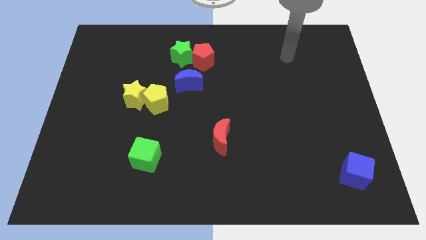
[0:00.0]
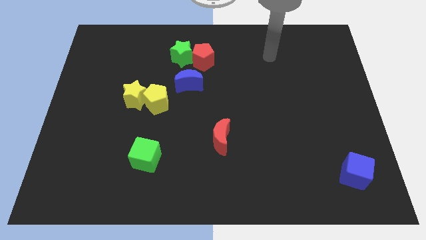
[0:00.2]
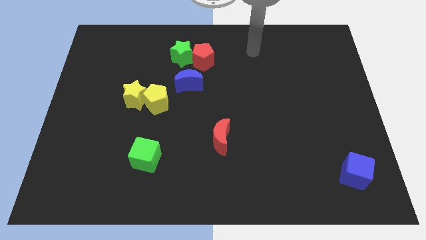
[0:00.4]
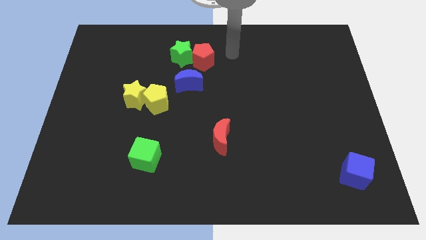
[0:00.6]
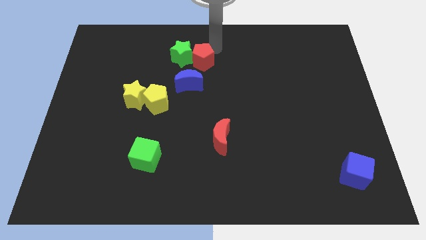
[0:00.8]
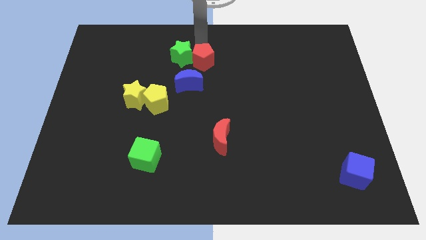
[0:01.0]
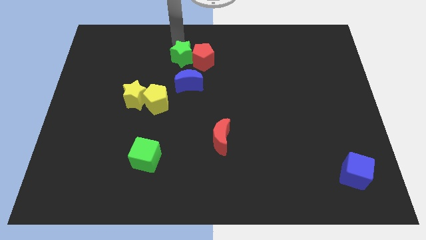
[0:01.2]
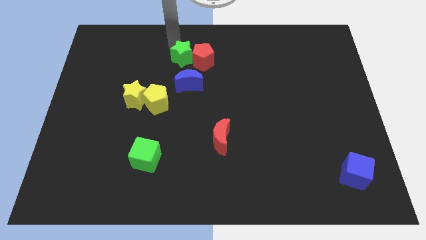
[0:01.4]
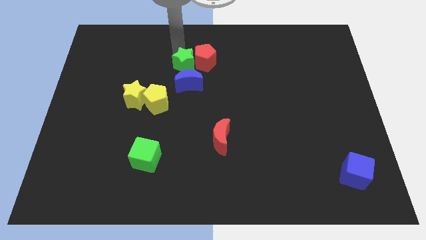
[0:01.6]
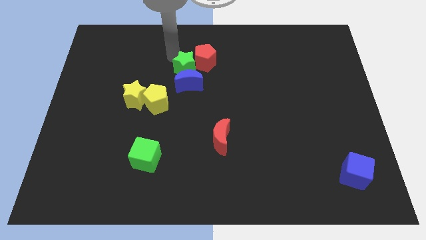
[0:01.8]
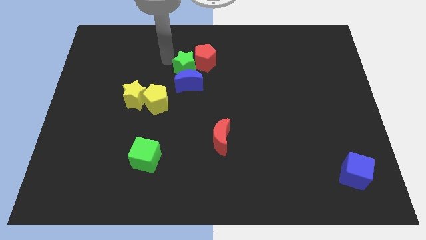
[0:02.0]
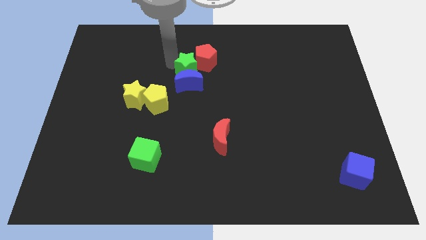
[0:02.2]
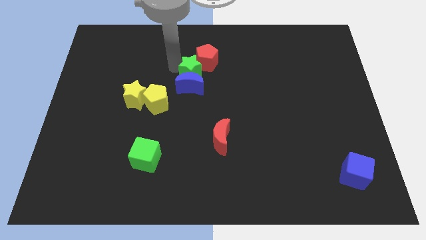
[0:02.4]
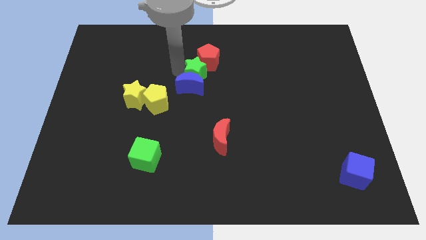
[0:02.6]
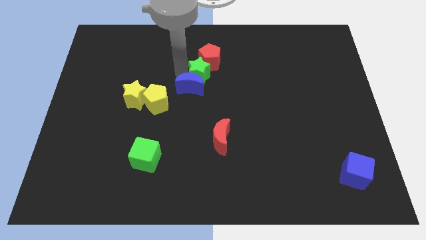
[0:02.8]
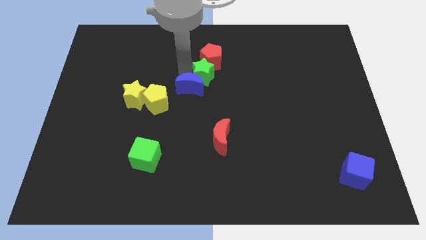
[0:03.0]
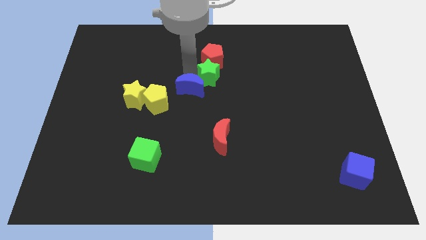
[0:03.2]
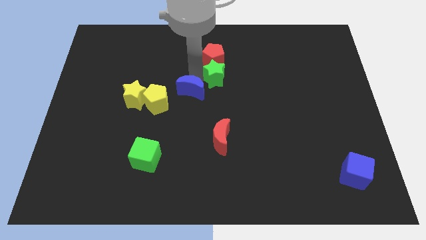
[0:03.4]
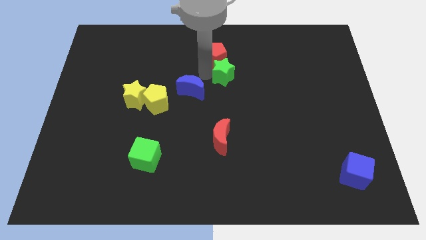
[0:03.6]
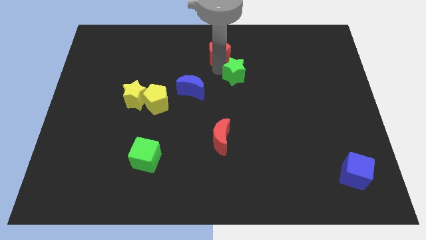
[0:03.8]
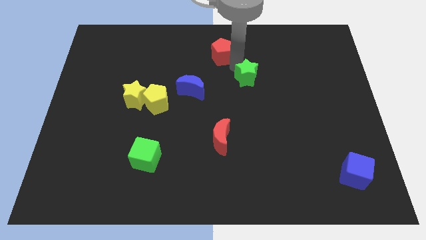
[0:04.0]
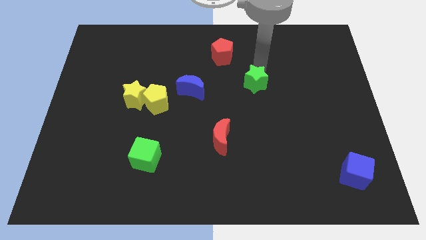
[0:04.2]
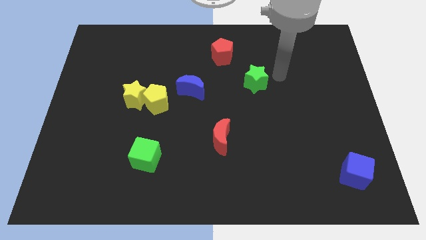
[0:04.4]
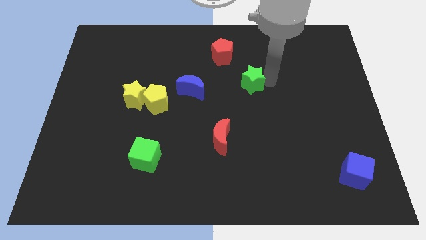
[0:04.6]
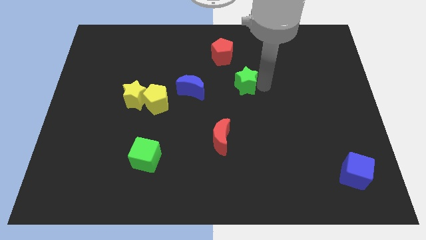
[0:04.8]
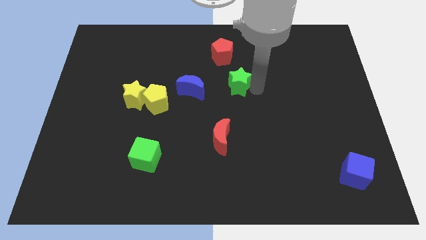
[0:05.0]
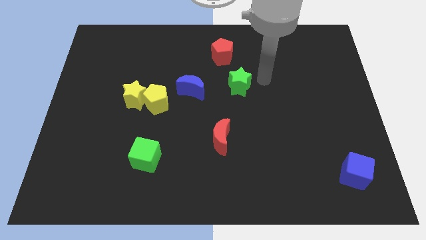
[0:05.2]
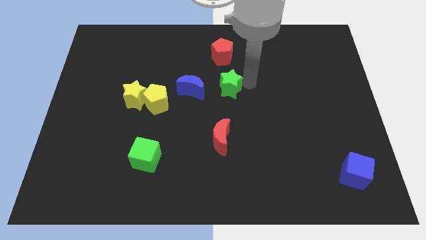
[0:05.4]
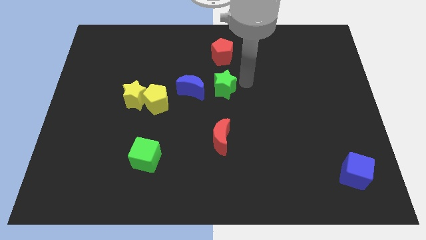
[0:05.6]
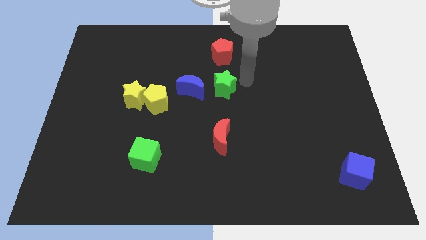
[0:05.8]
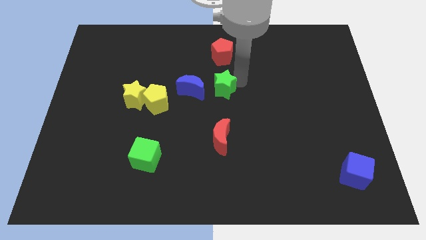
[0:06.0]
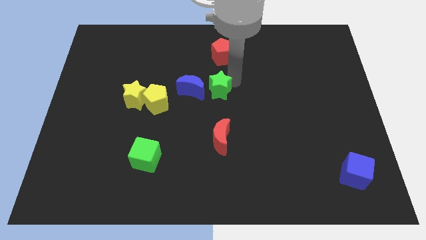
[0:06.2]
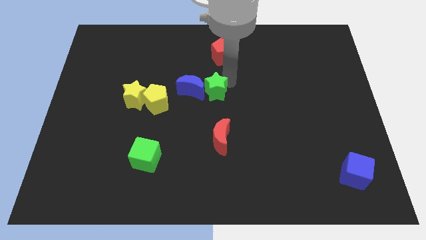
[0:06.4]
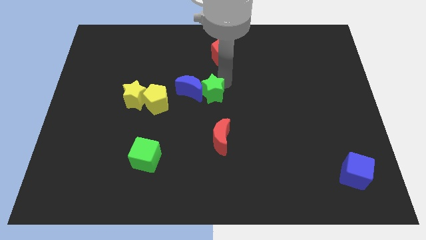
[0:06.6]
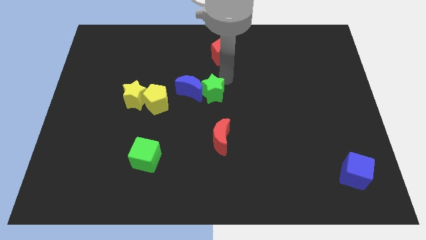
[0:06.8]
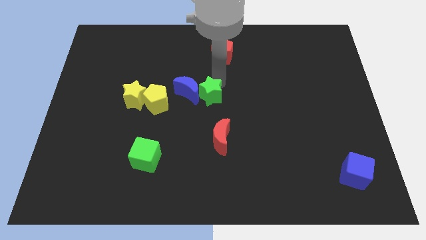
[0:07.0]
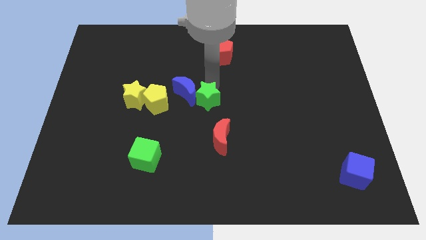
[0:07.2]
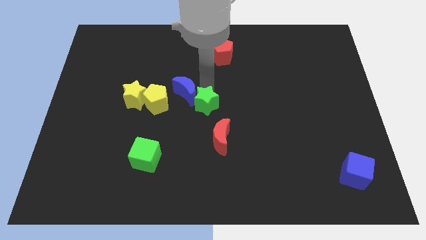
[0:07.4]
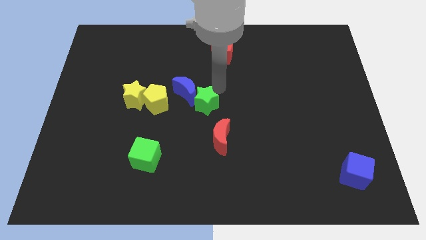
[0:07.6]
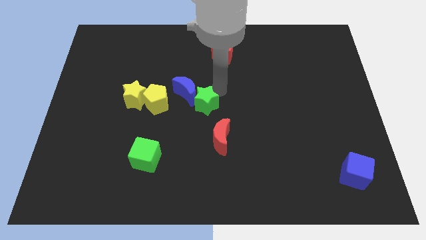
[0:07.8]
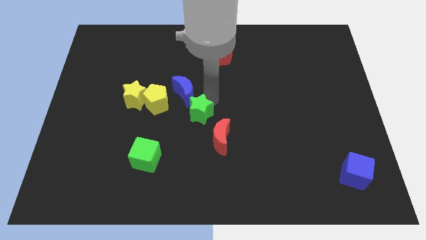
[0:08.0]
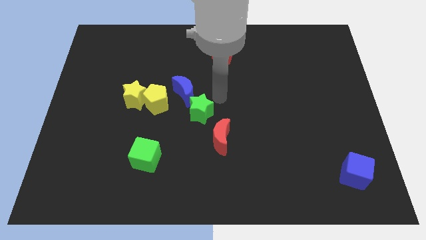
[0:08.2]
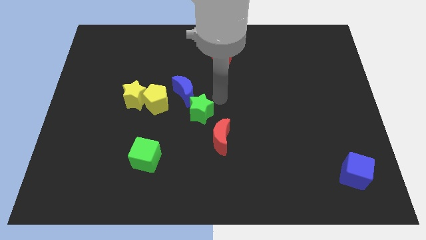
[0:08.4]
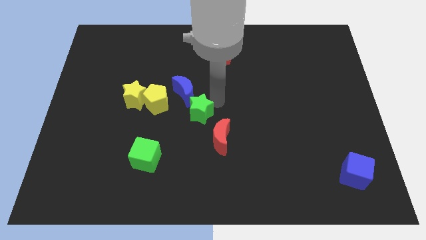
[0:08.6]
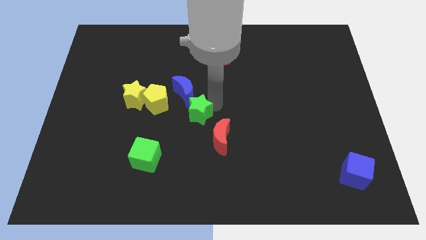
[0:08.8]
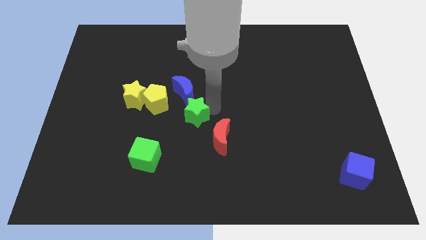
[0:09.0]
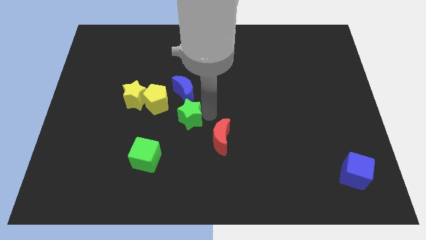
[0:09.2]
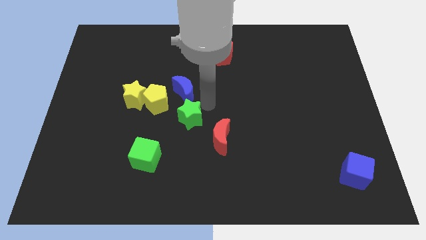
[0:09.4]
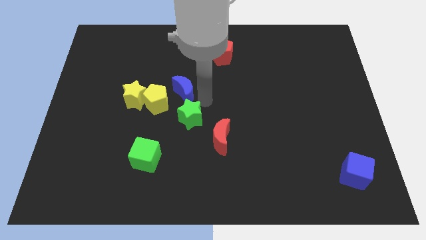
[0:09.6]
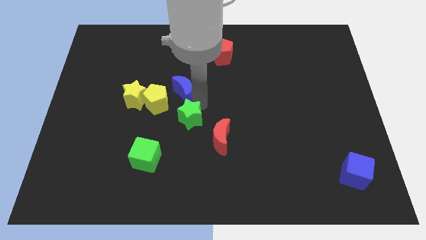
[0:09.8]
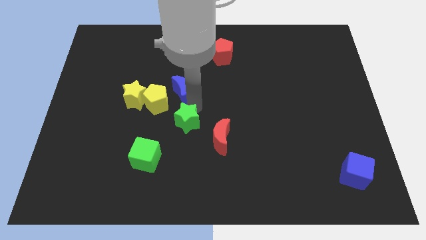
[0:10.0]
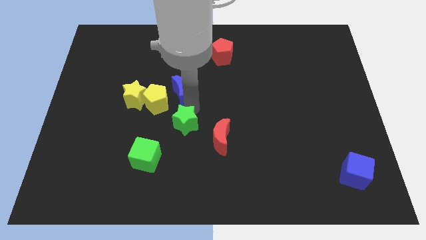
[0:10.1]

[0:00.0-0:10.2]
slide the green star to the left of the red moon

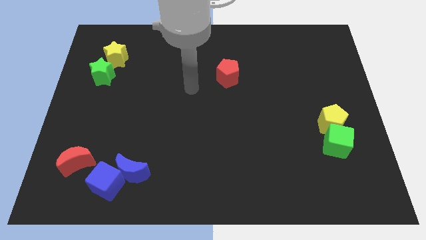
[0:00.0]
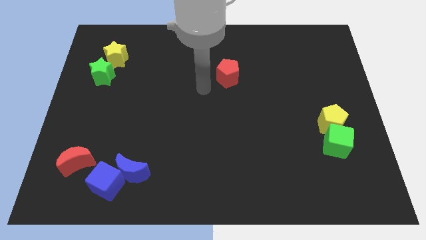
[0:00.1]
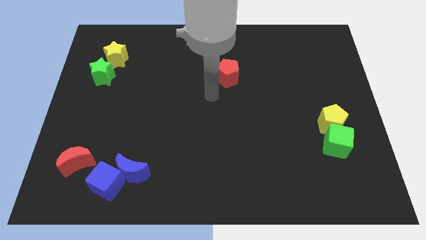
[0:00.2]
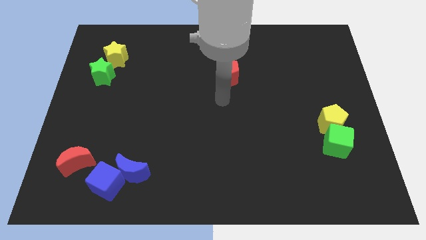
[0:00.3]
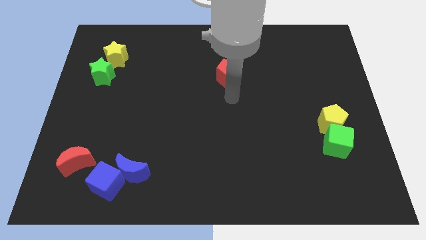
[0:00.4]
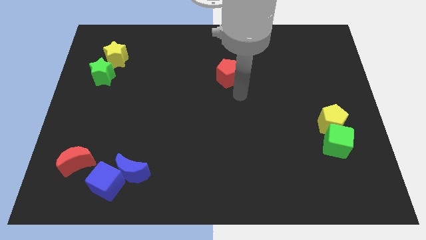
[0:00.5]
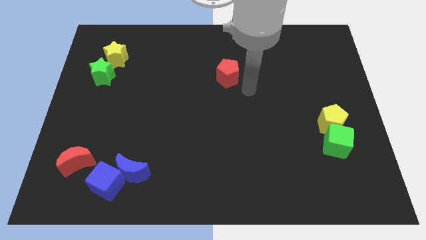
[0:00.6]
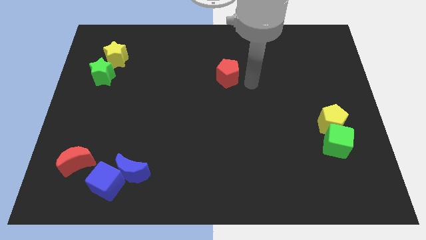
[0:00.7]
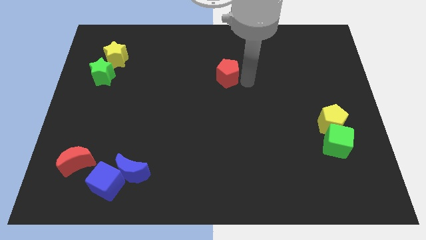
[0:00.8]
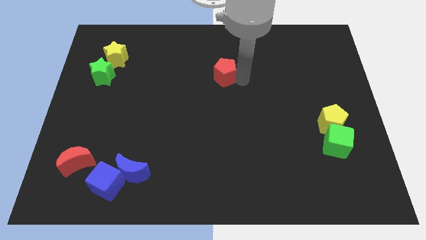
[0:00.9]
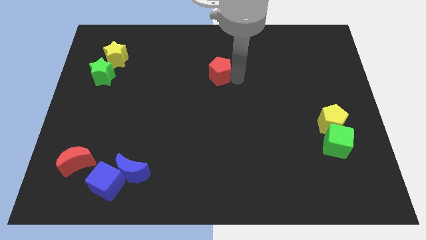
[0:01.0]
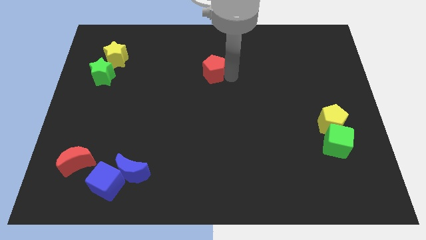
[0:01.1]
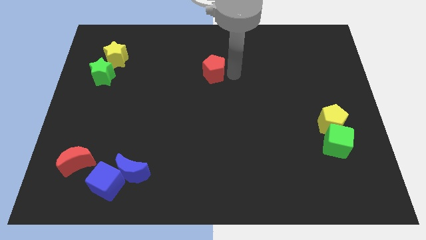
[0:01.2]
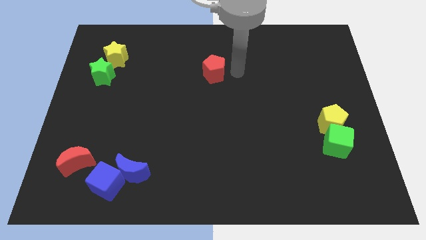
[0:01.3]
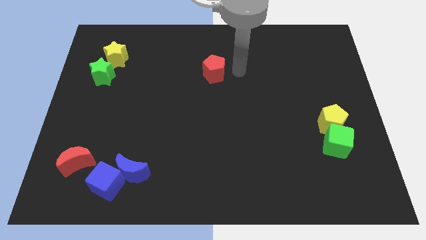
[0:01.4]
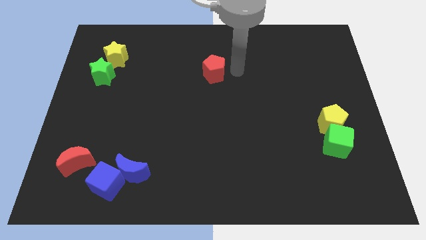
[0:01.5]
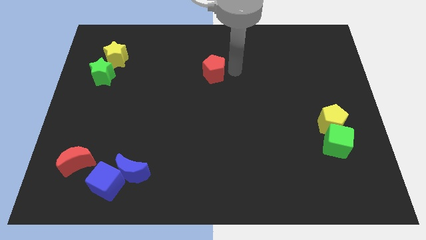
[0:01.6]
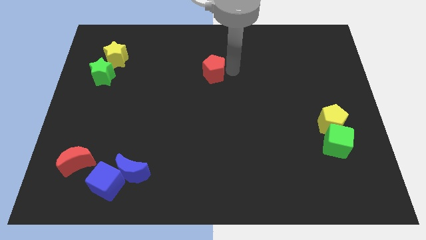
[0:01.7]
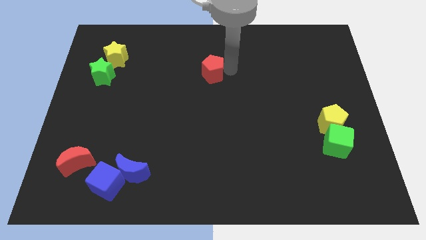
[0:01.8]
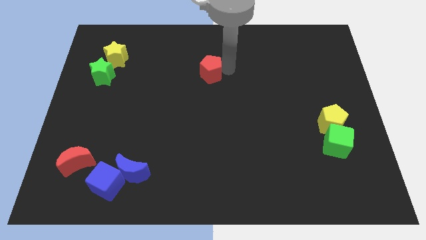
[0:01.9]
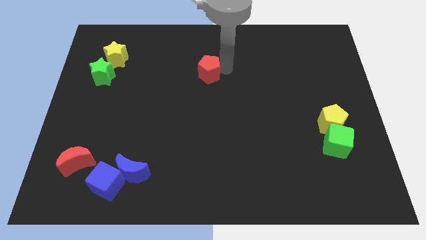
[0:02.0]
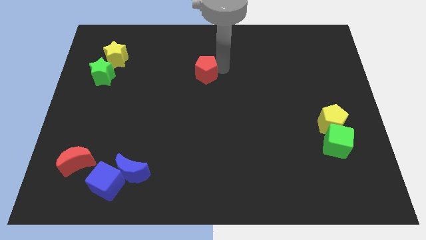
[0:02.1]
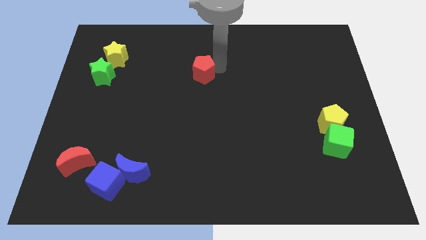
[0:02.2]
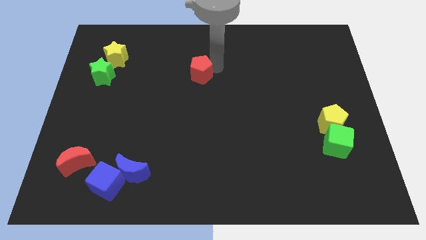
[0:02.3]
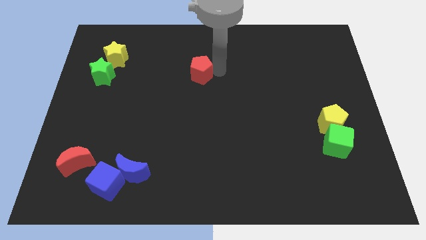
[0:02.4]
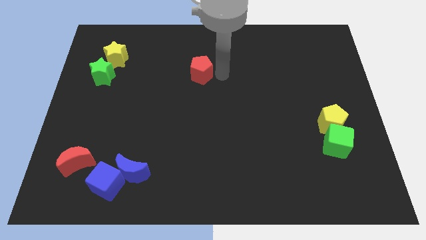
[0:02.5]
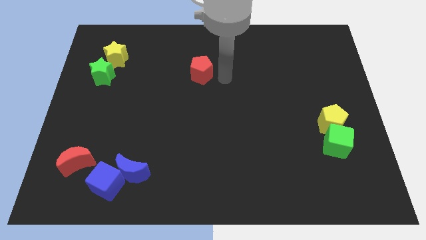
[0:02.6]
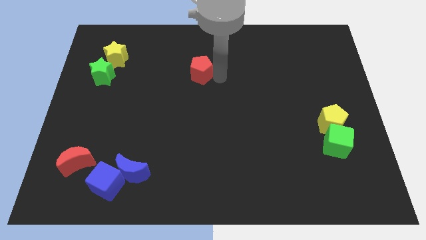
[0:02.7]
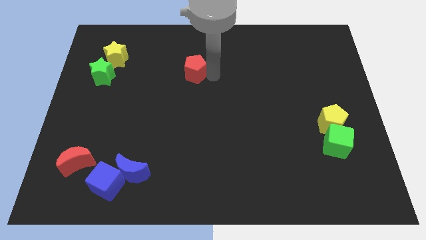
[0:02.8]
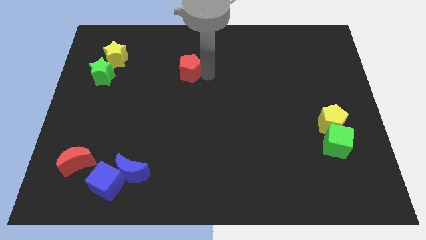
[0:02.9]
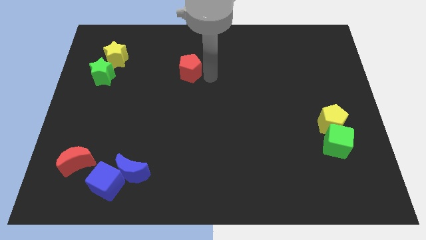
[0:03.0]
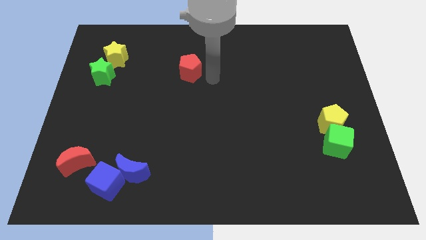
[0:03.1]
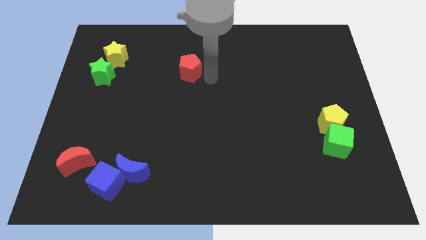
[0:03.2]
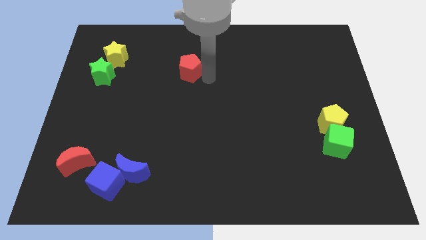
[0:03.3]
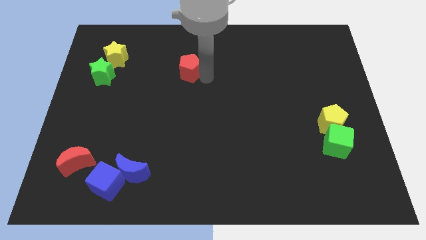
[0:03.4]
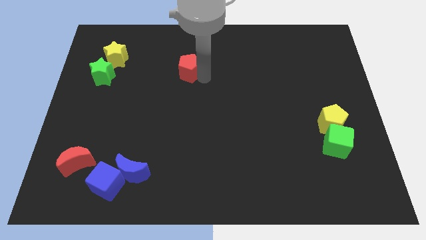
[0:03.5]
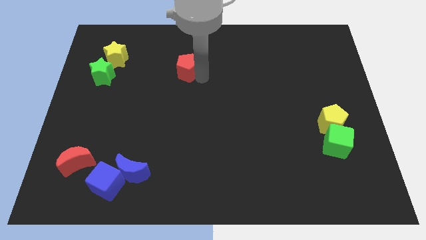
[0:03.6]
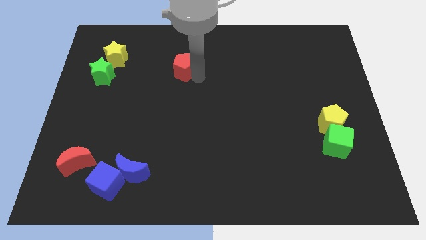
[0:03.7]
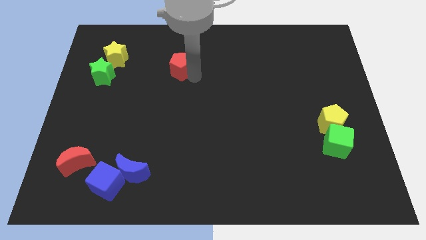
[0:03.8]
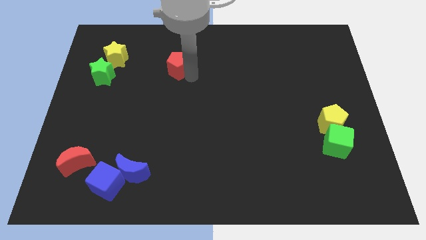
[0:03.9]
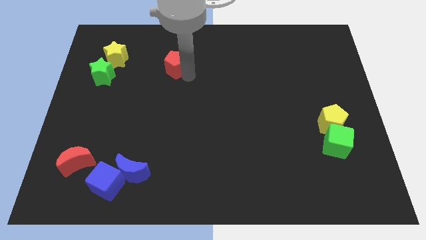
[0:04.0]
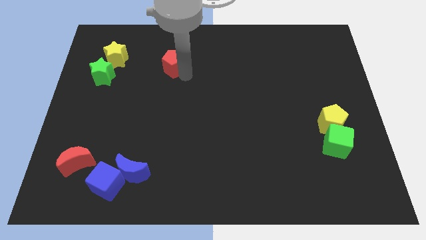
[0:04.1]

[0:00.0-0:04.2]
move the red pentagon to the right side of the yellow star
